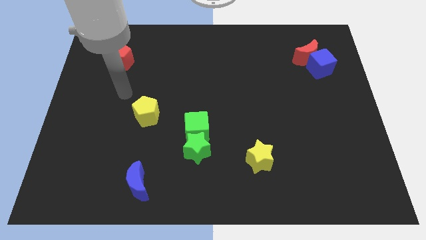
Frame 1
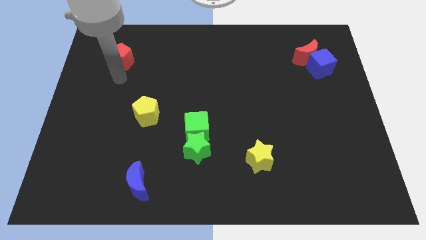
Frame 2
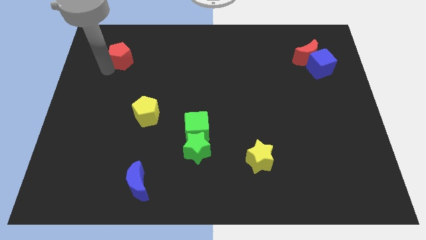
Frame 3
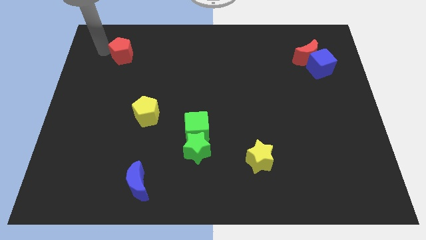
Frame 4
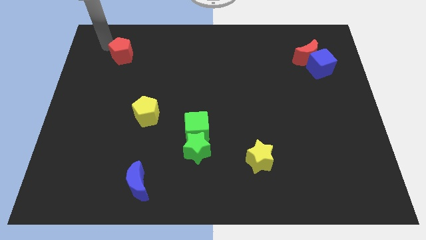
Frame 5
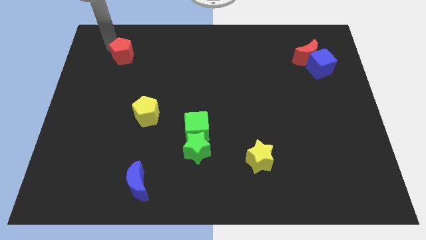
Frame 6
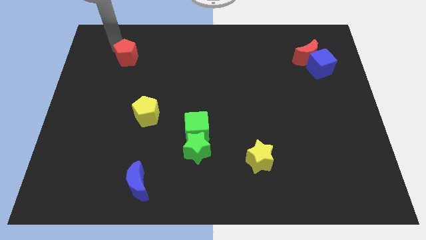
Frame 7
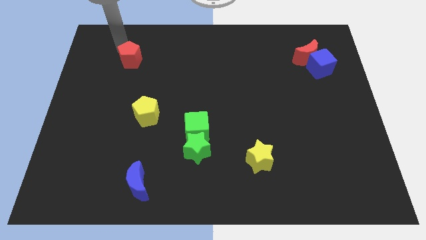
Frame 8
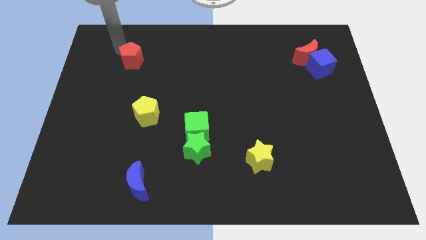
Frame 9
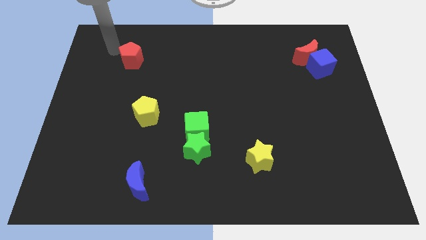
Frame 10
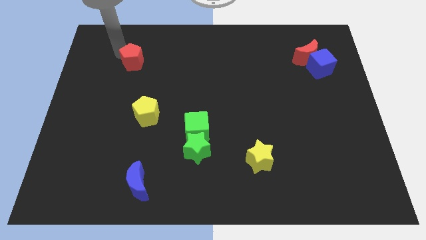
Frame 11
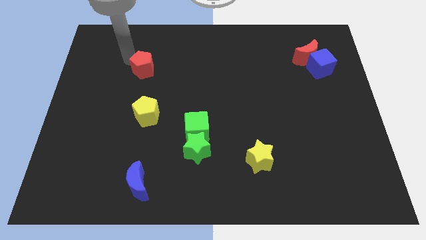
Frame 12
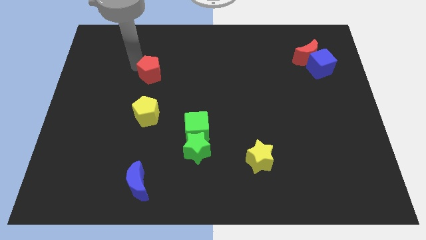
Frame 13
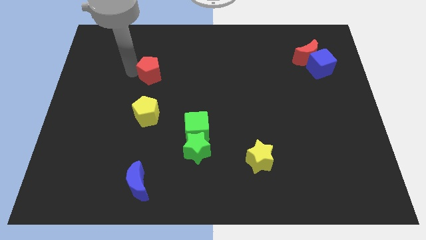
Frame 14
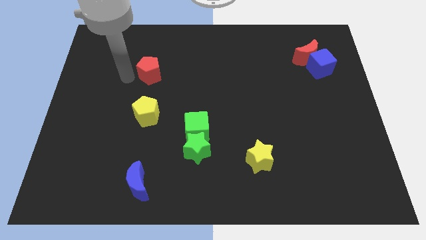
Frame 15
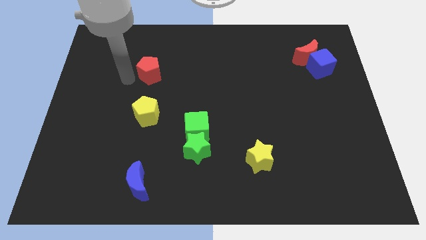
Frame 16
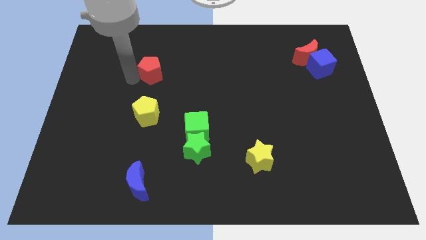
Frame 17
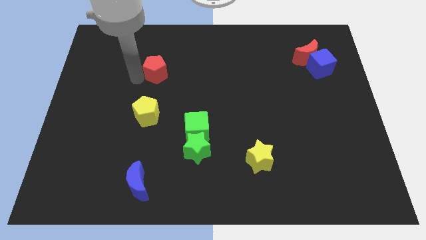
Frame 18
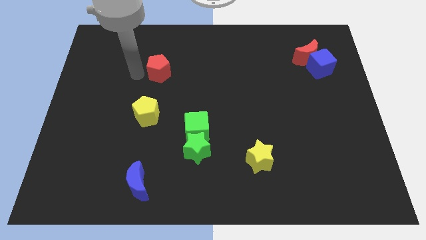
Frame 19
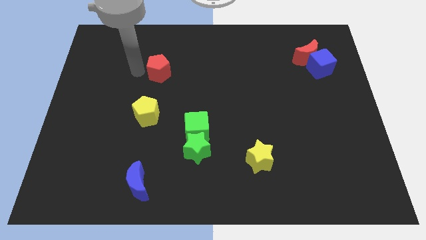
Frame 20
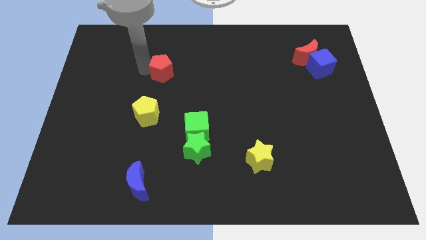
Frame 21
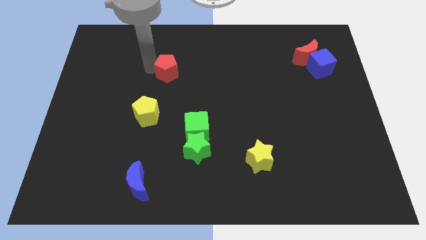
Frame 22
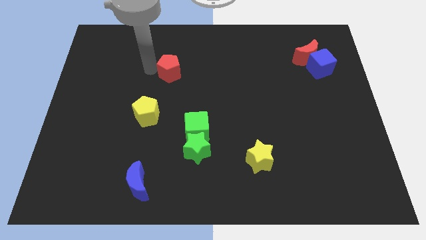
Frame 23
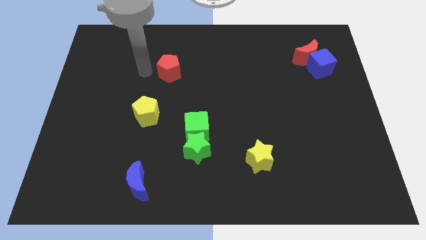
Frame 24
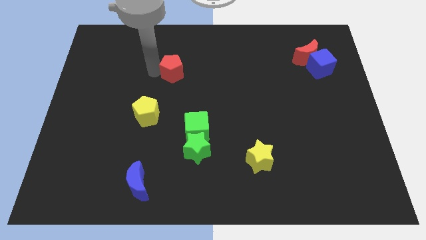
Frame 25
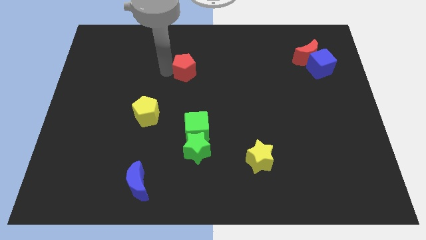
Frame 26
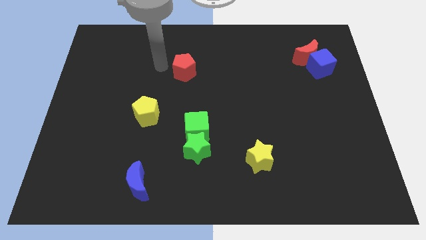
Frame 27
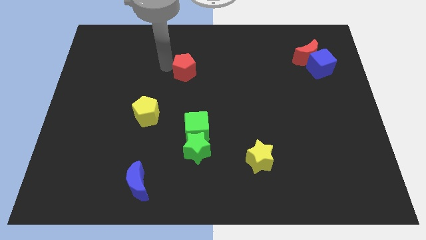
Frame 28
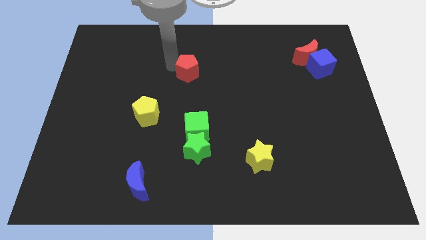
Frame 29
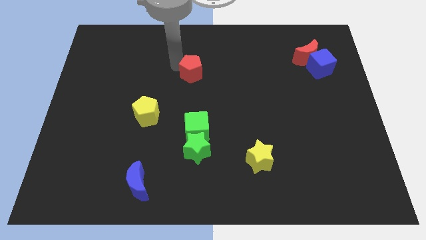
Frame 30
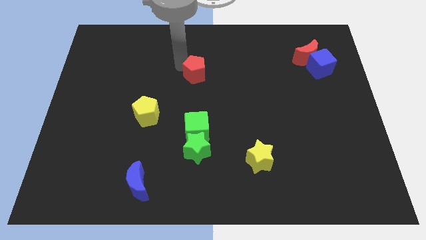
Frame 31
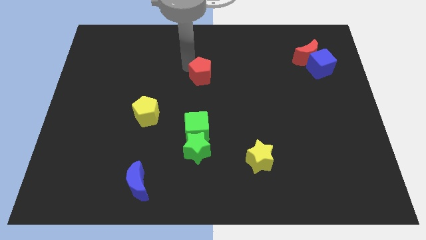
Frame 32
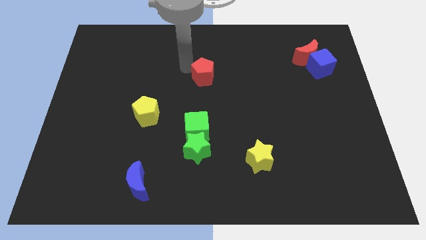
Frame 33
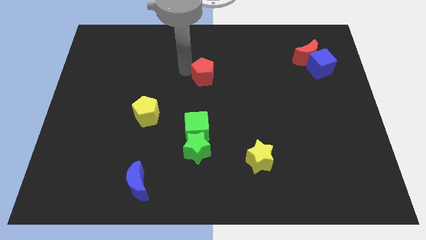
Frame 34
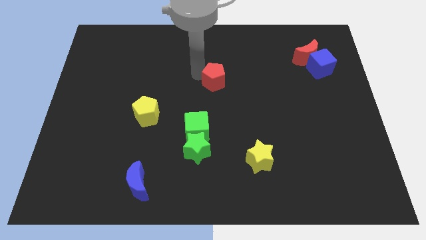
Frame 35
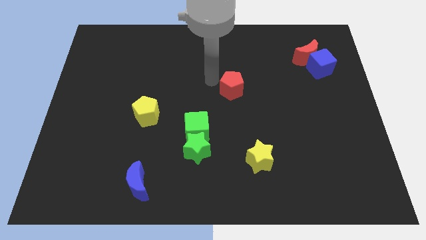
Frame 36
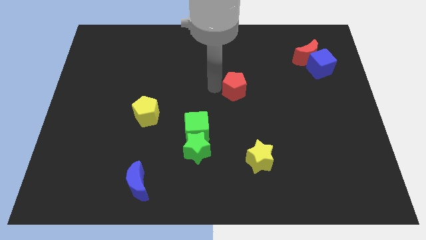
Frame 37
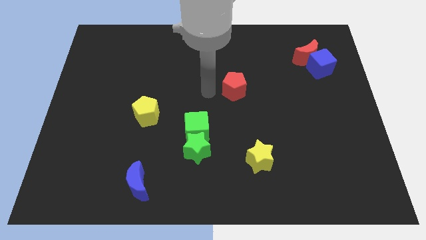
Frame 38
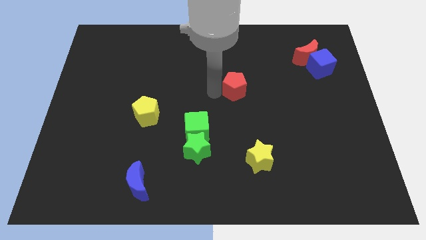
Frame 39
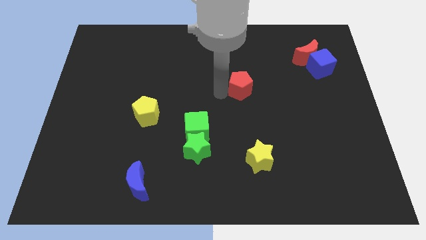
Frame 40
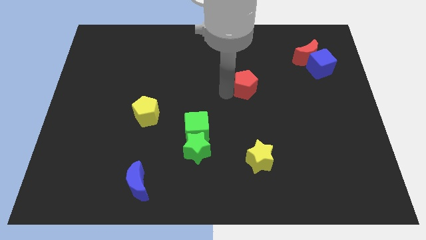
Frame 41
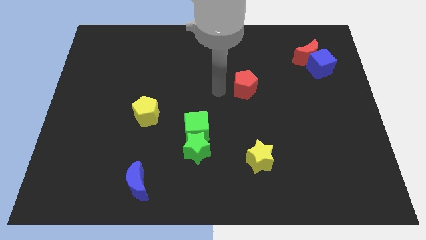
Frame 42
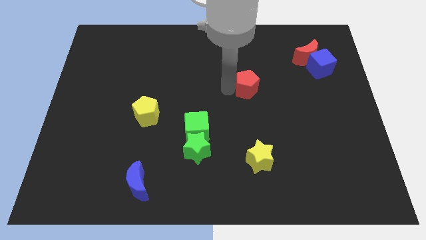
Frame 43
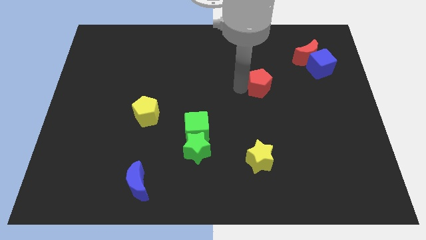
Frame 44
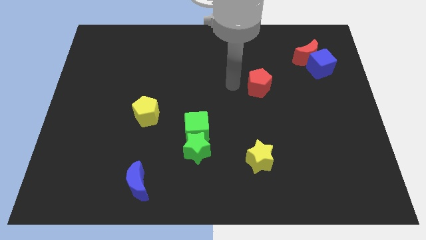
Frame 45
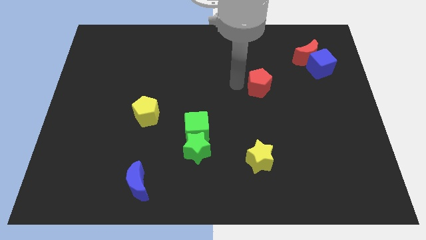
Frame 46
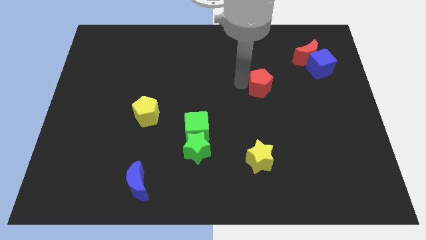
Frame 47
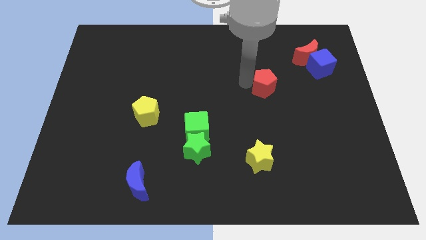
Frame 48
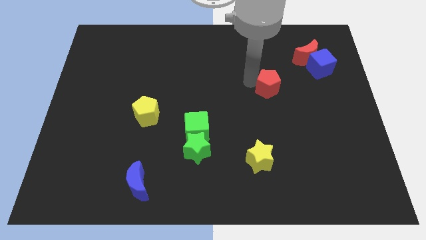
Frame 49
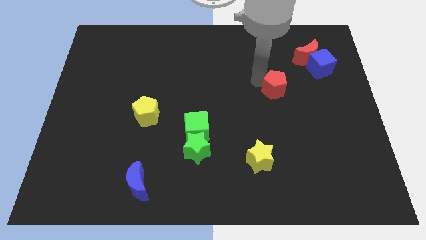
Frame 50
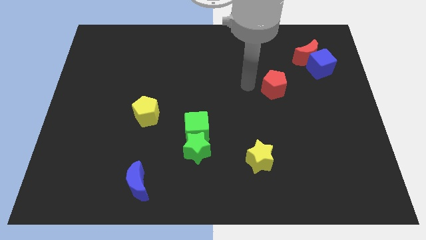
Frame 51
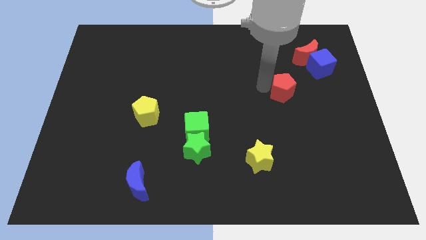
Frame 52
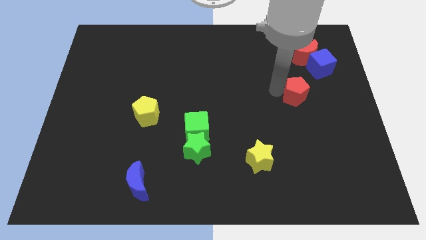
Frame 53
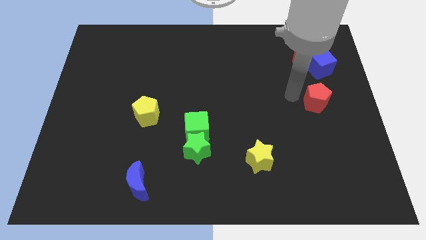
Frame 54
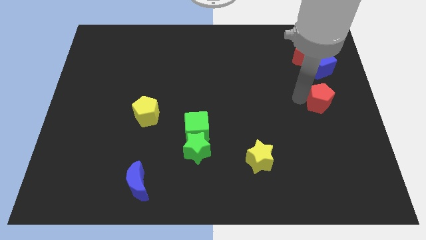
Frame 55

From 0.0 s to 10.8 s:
push the red pentagon to the right side of the board
